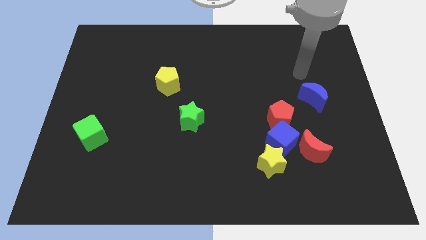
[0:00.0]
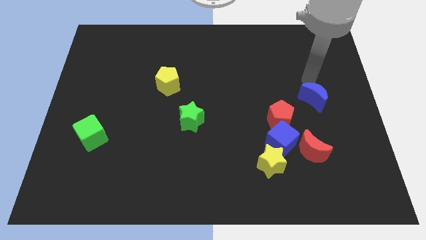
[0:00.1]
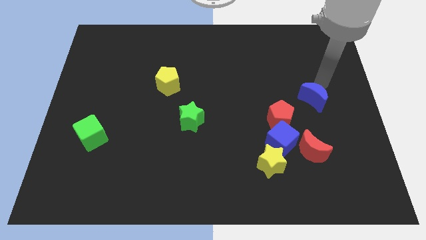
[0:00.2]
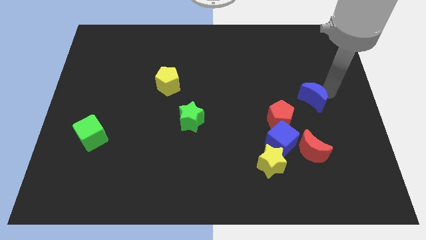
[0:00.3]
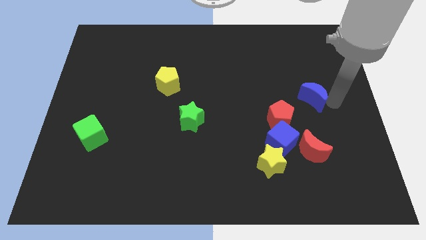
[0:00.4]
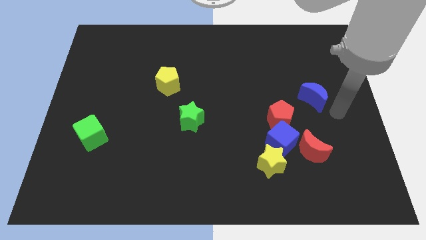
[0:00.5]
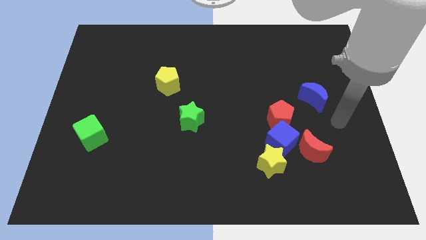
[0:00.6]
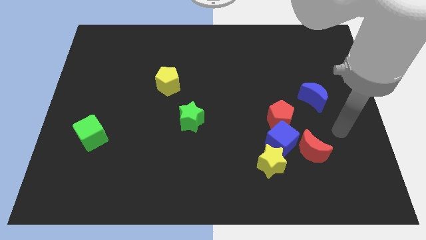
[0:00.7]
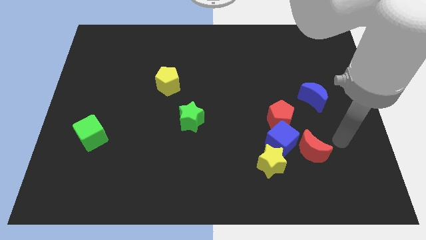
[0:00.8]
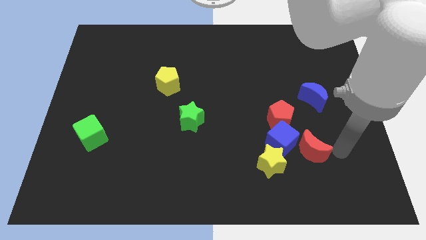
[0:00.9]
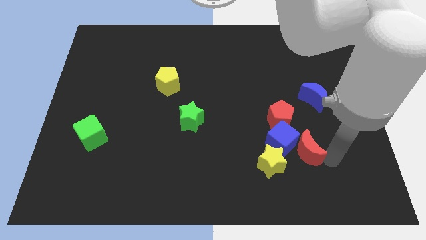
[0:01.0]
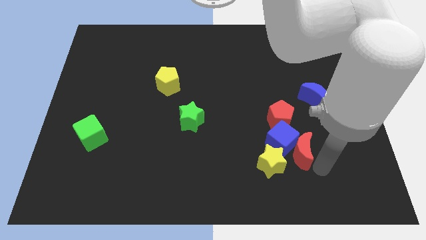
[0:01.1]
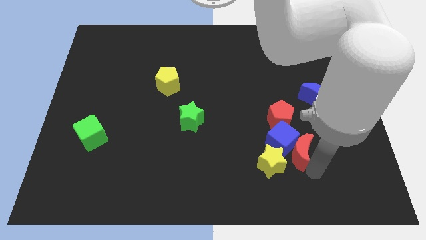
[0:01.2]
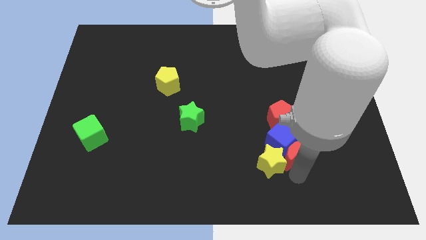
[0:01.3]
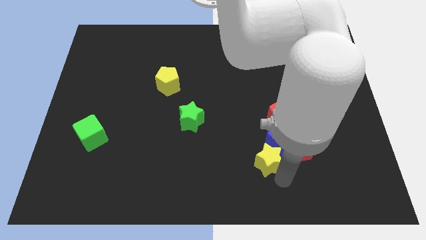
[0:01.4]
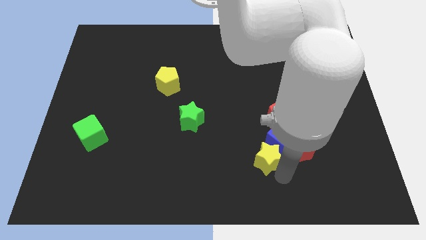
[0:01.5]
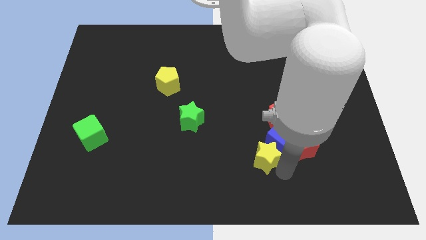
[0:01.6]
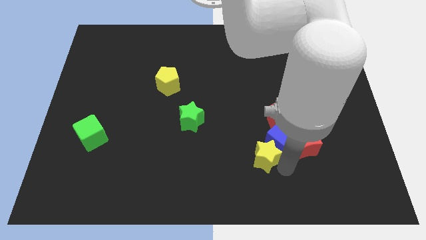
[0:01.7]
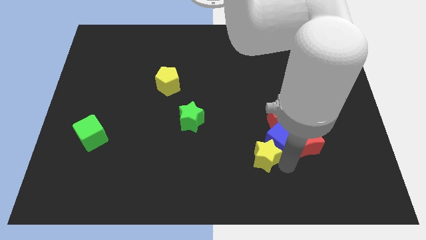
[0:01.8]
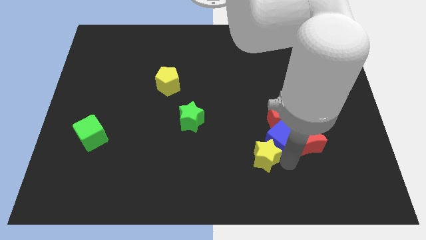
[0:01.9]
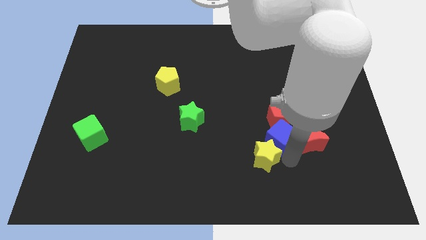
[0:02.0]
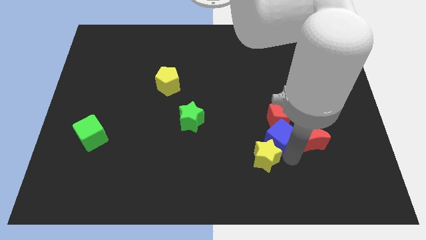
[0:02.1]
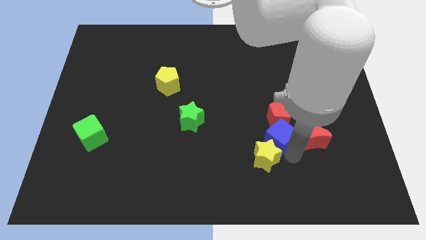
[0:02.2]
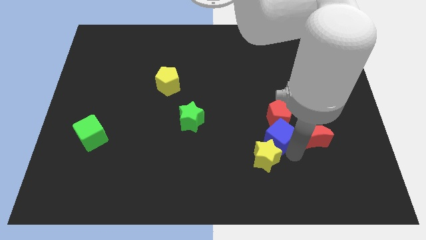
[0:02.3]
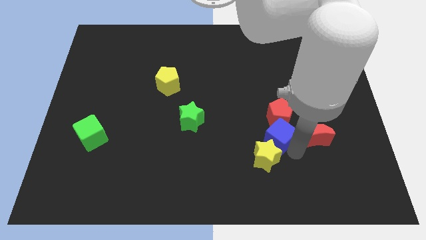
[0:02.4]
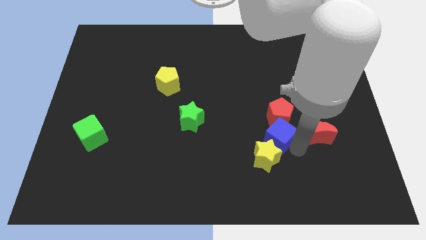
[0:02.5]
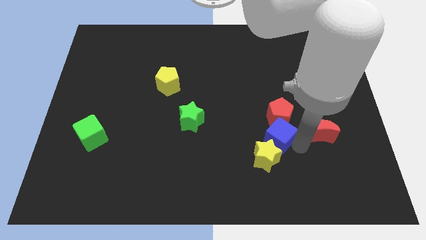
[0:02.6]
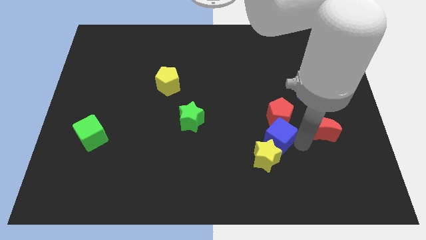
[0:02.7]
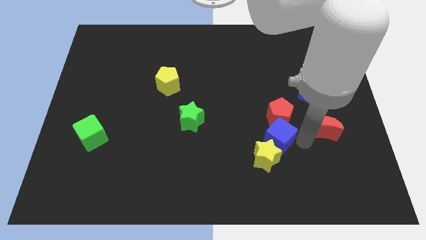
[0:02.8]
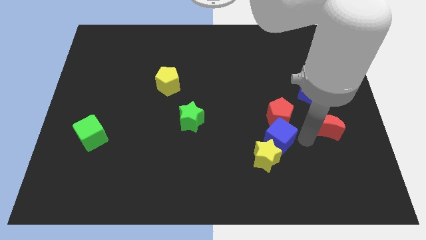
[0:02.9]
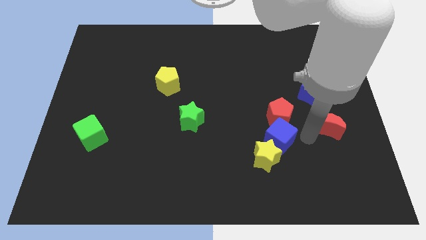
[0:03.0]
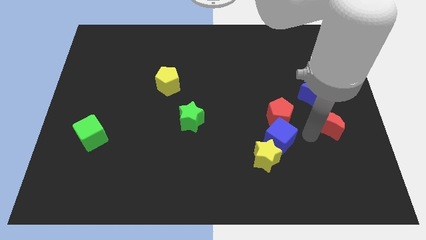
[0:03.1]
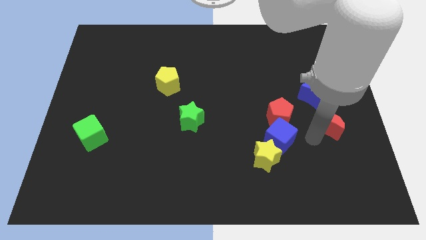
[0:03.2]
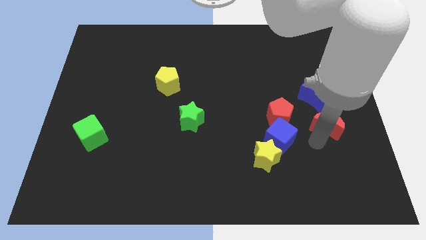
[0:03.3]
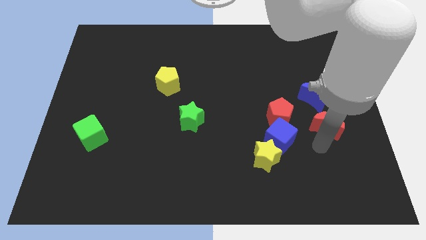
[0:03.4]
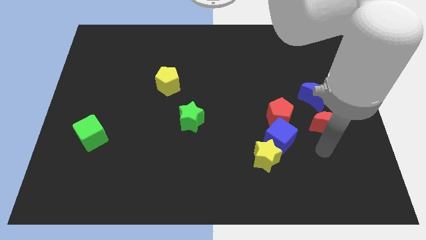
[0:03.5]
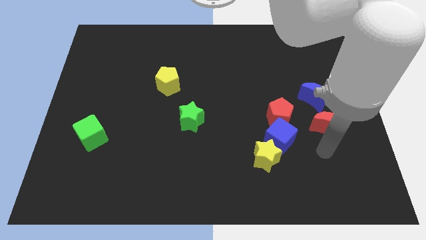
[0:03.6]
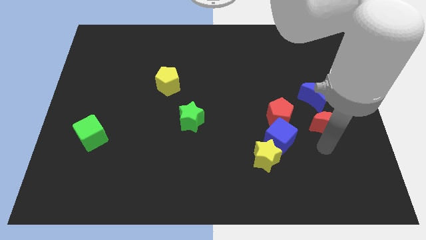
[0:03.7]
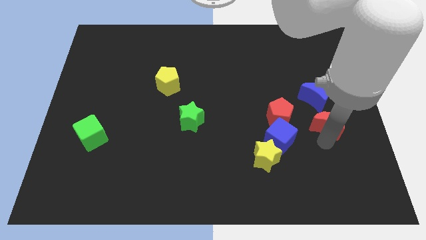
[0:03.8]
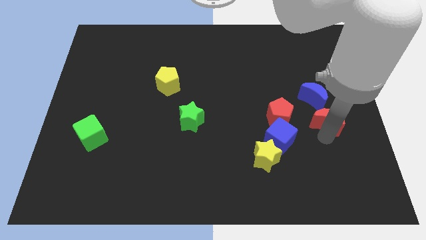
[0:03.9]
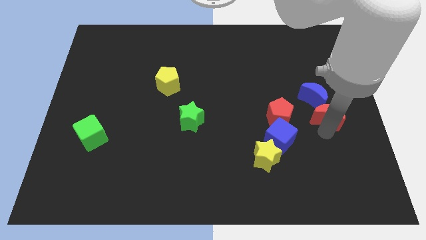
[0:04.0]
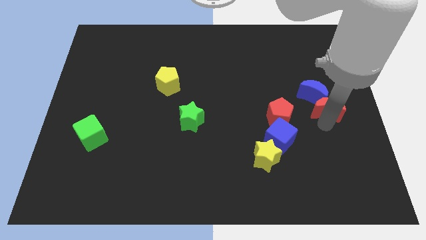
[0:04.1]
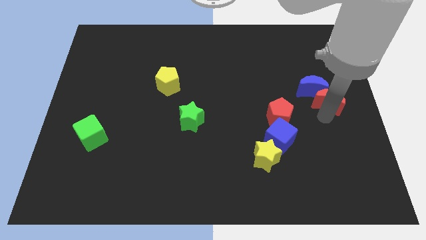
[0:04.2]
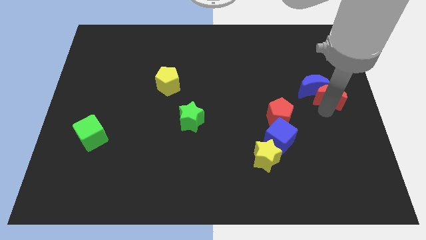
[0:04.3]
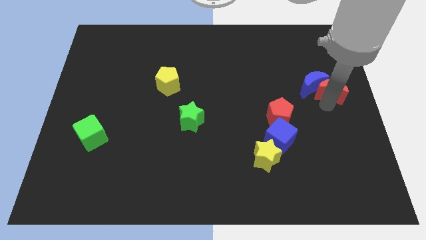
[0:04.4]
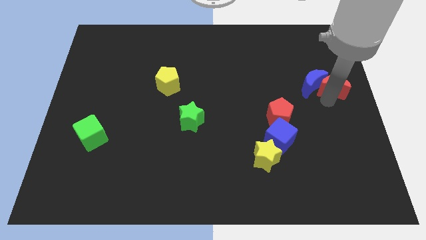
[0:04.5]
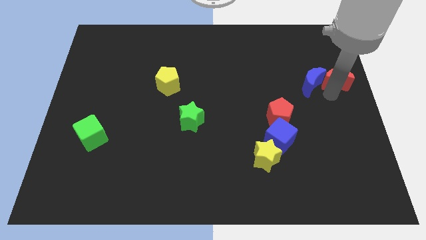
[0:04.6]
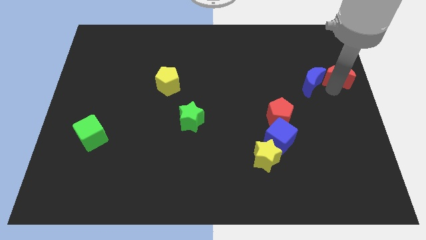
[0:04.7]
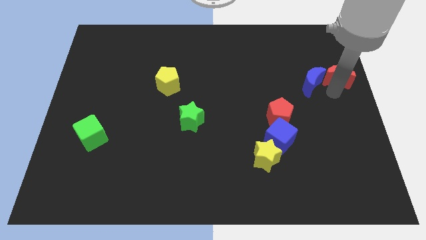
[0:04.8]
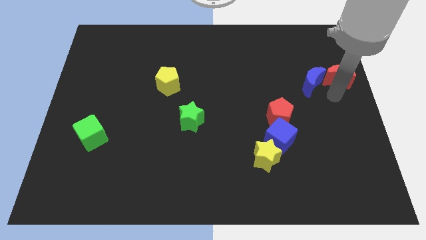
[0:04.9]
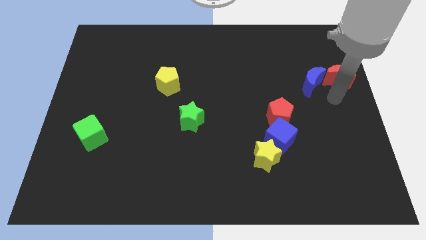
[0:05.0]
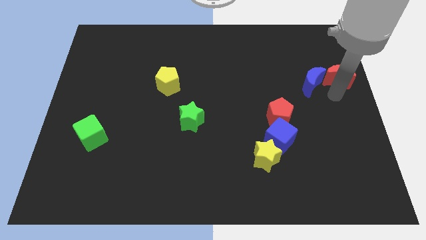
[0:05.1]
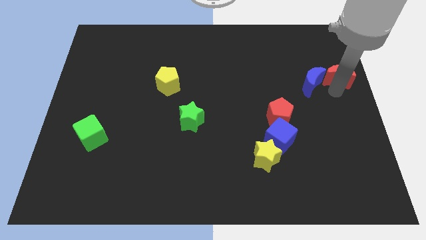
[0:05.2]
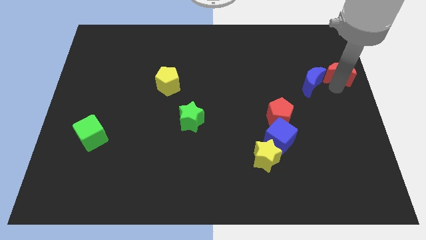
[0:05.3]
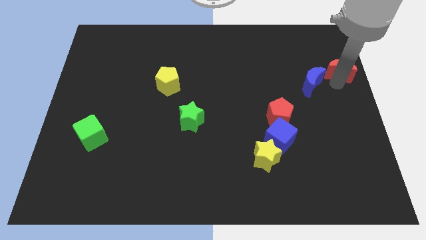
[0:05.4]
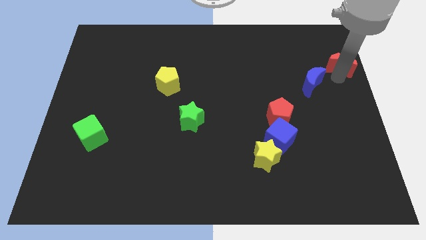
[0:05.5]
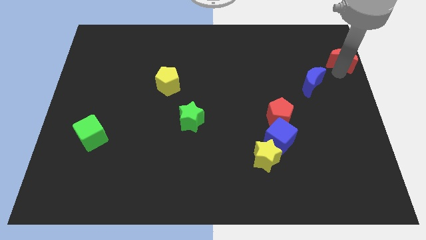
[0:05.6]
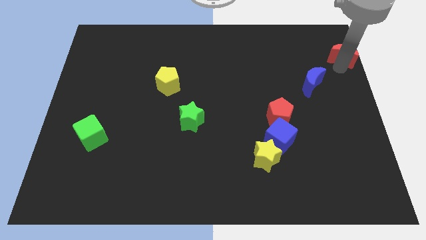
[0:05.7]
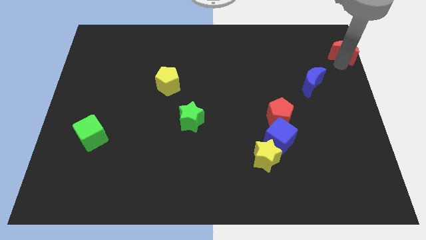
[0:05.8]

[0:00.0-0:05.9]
move the red moon to the top right of the board
